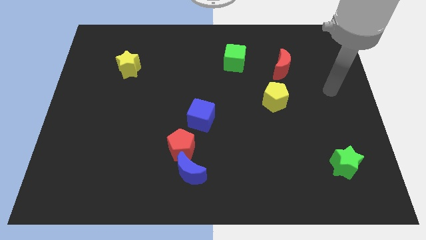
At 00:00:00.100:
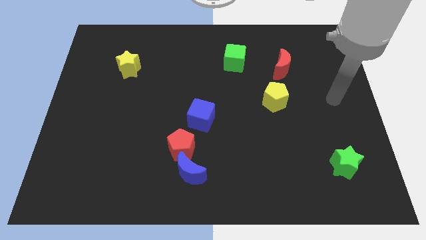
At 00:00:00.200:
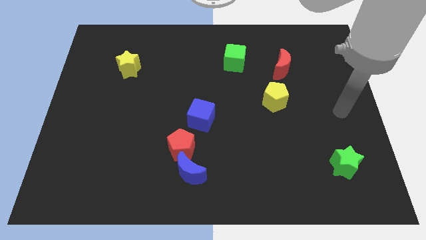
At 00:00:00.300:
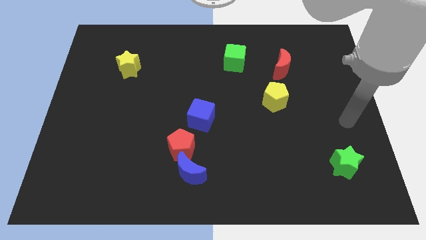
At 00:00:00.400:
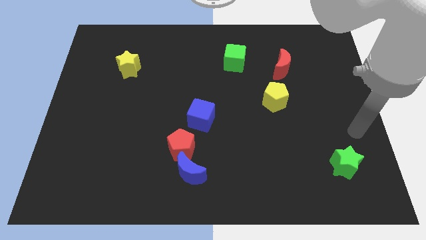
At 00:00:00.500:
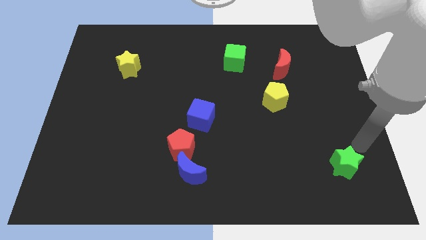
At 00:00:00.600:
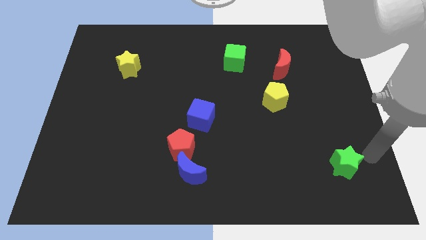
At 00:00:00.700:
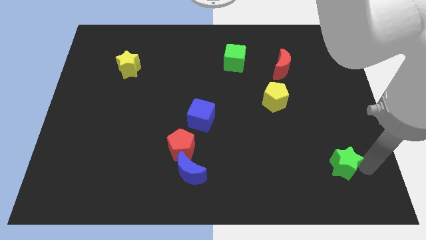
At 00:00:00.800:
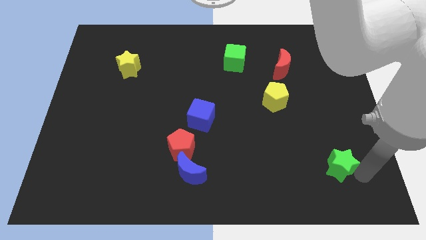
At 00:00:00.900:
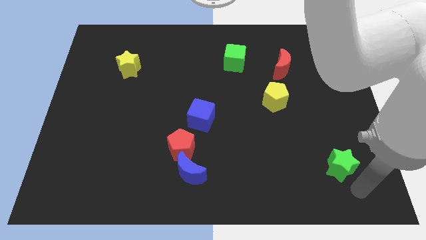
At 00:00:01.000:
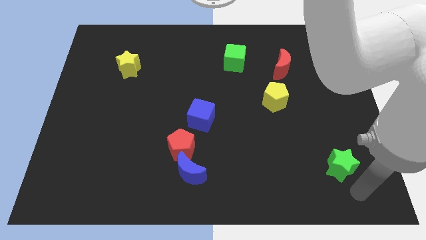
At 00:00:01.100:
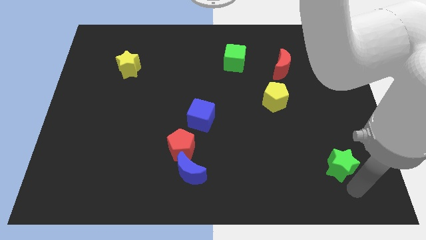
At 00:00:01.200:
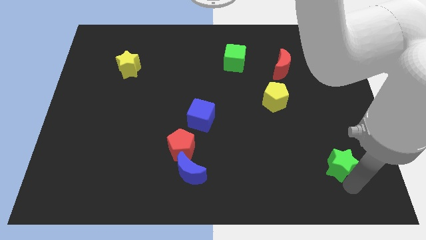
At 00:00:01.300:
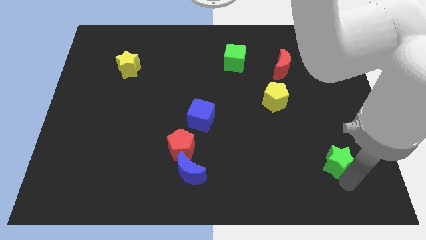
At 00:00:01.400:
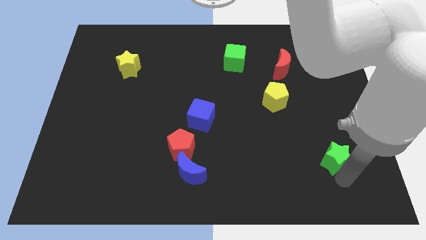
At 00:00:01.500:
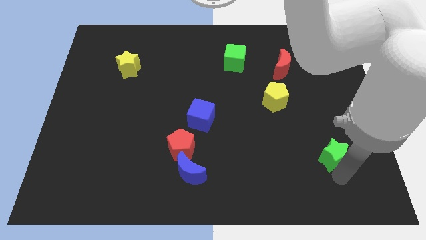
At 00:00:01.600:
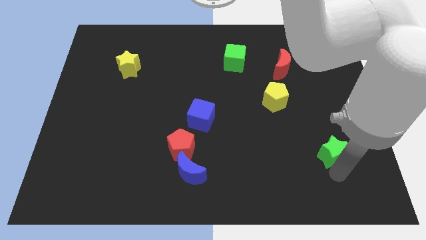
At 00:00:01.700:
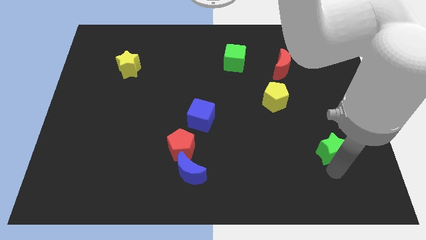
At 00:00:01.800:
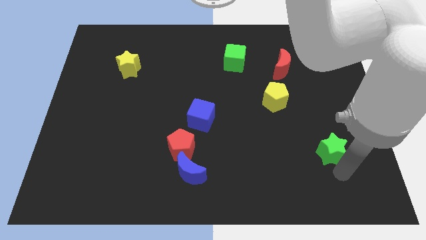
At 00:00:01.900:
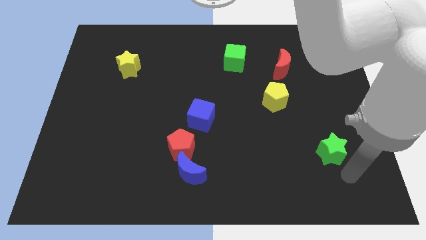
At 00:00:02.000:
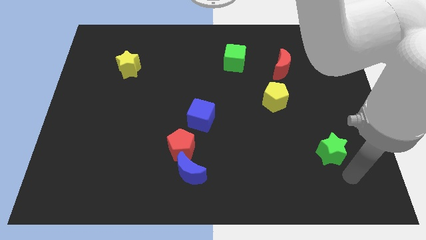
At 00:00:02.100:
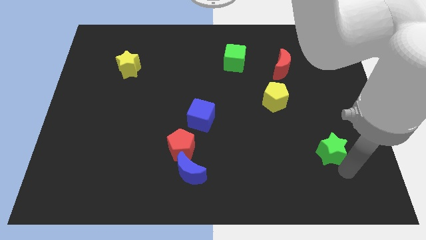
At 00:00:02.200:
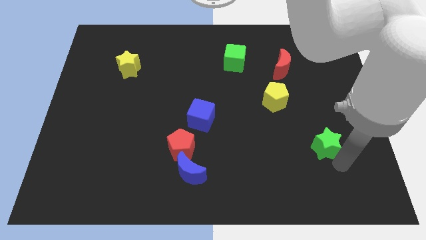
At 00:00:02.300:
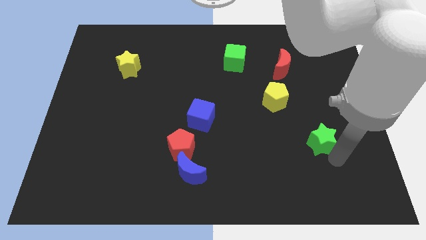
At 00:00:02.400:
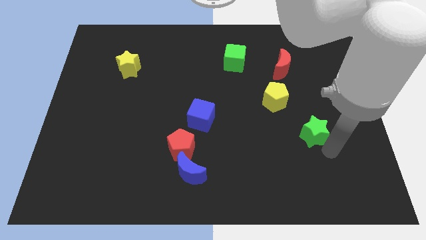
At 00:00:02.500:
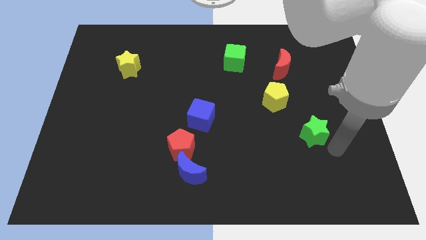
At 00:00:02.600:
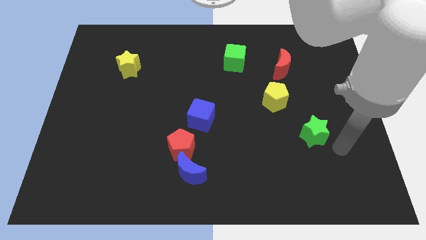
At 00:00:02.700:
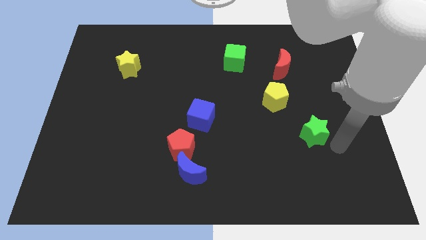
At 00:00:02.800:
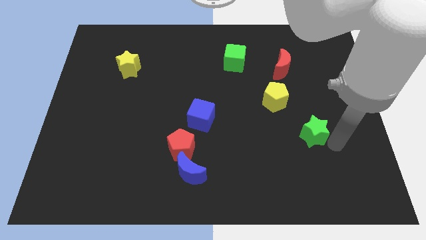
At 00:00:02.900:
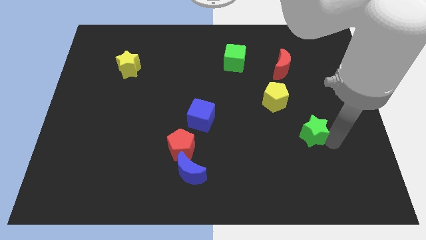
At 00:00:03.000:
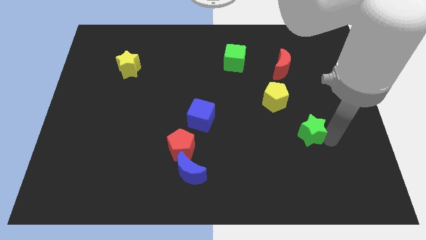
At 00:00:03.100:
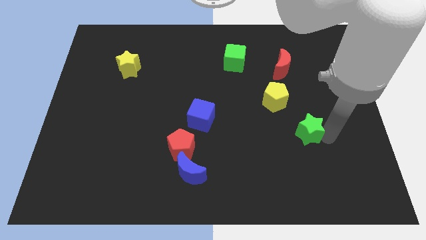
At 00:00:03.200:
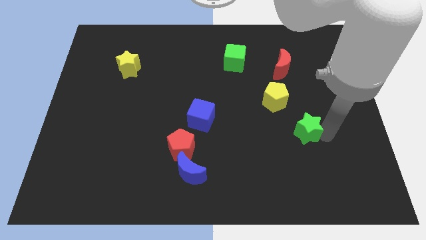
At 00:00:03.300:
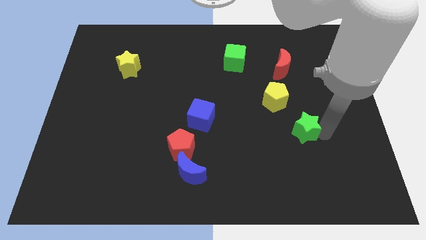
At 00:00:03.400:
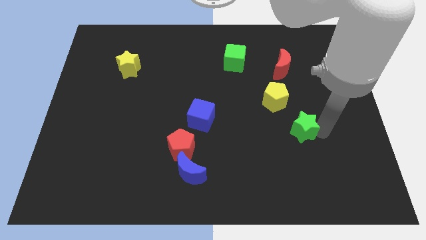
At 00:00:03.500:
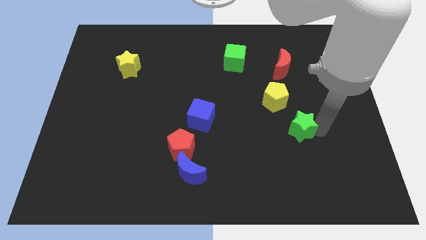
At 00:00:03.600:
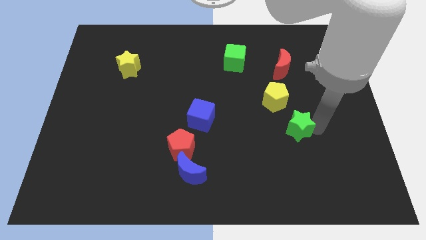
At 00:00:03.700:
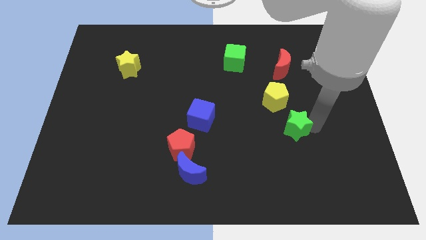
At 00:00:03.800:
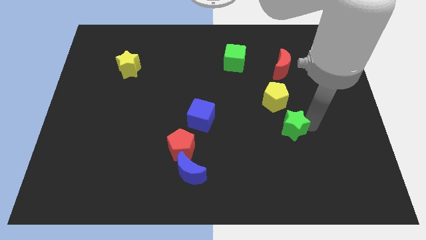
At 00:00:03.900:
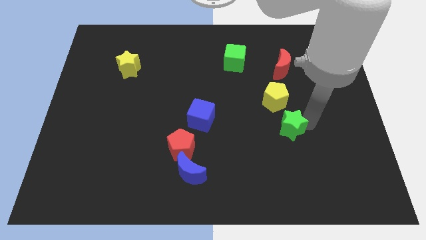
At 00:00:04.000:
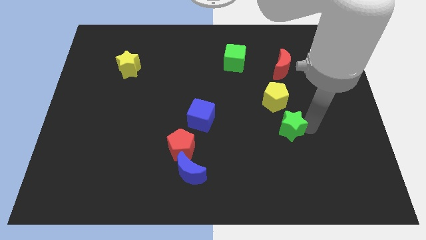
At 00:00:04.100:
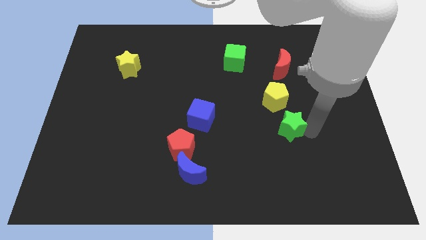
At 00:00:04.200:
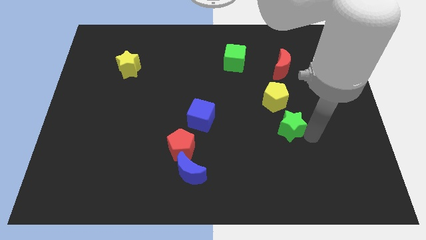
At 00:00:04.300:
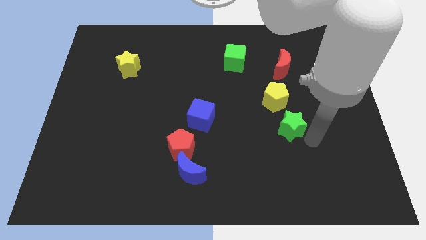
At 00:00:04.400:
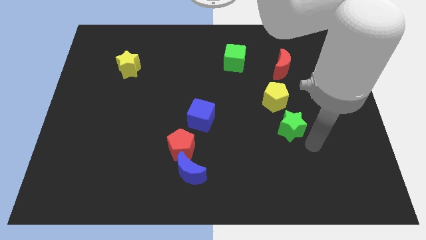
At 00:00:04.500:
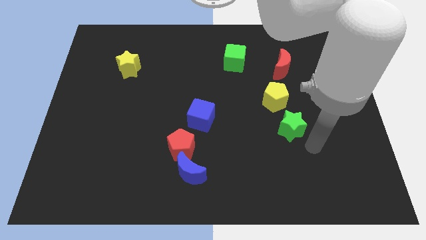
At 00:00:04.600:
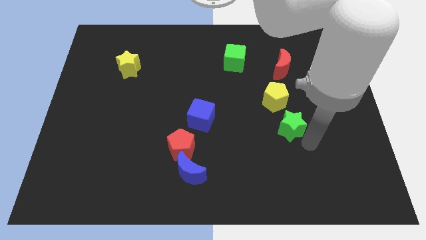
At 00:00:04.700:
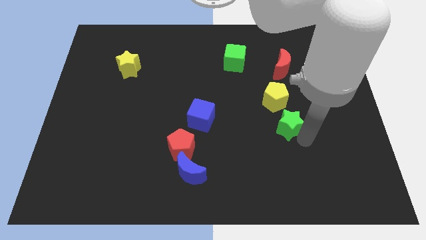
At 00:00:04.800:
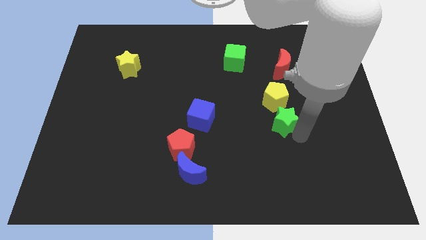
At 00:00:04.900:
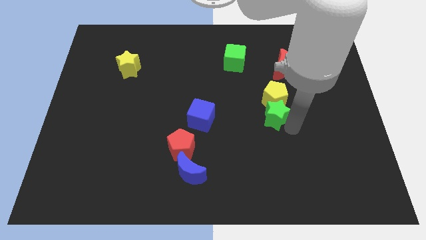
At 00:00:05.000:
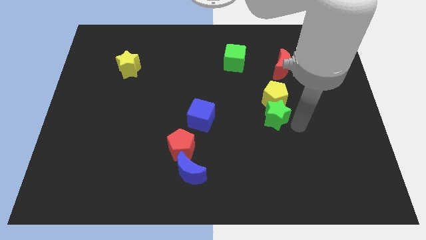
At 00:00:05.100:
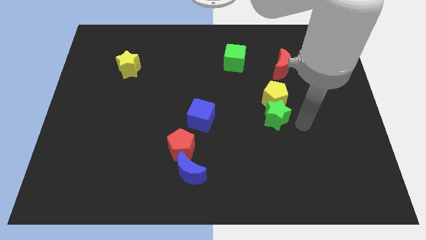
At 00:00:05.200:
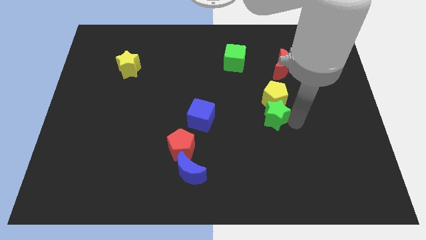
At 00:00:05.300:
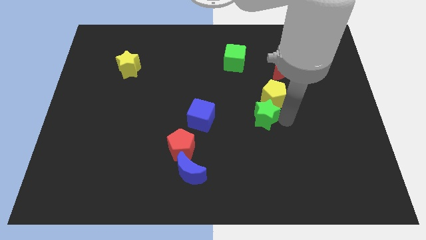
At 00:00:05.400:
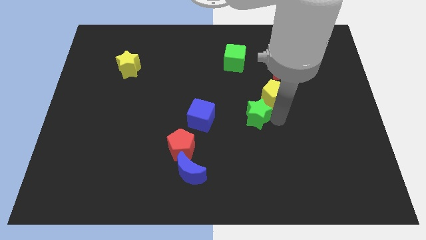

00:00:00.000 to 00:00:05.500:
slide the green star to the center of the board
